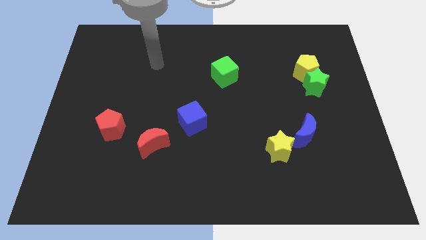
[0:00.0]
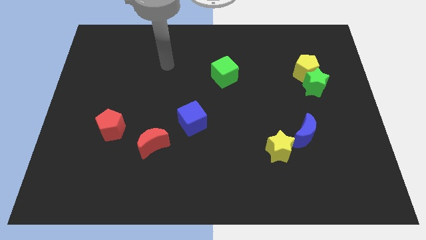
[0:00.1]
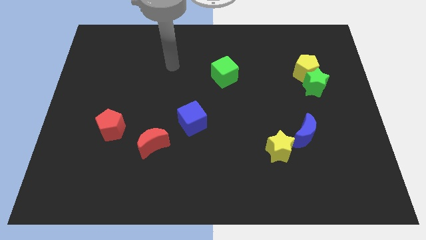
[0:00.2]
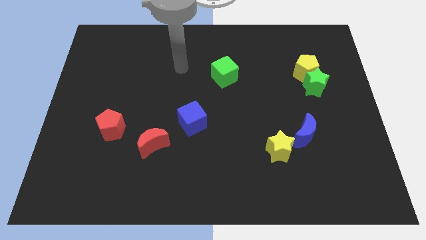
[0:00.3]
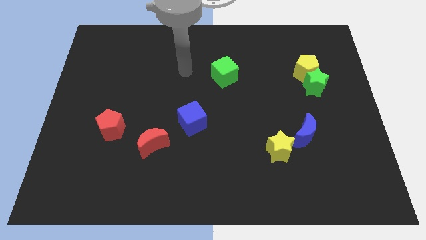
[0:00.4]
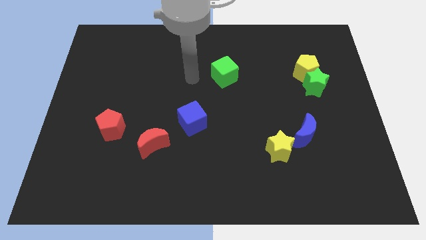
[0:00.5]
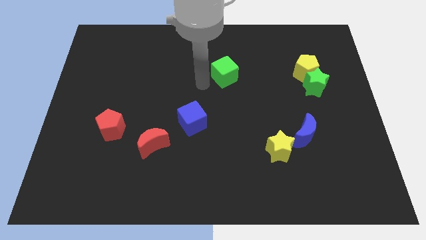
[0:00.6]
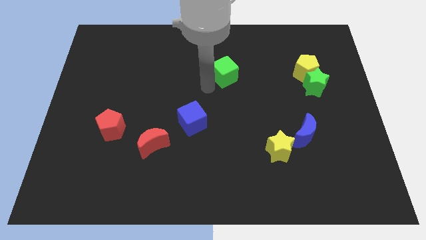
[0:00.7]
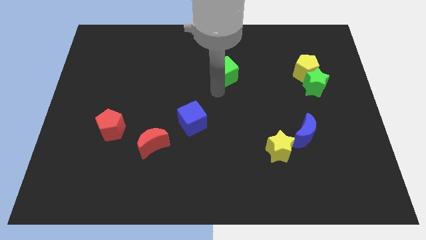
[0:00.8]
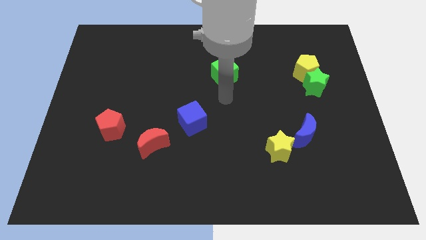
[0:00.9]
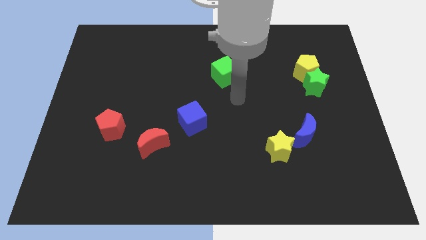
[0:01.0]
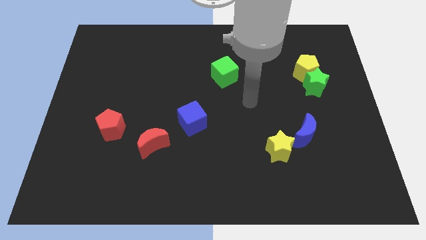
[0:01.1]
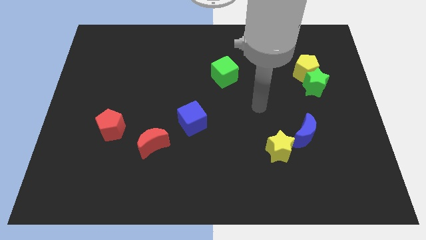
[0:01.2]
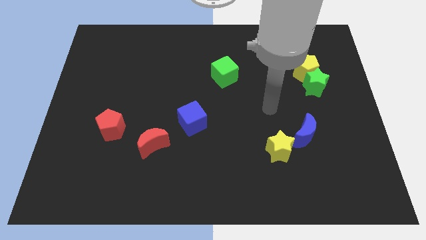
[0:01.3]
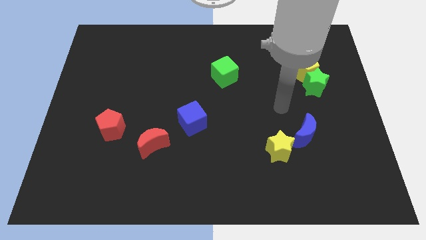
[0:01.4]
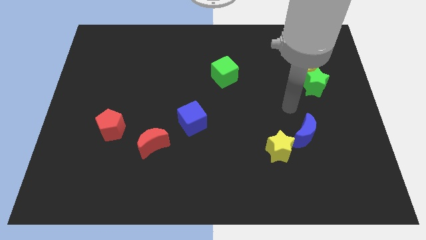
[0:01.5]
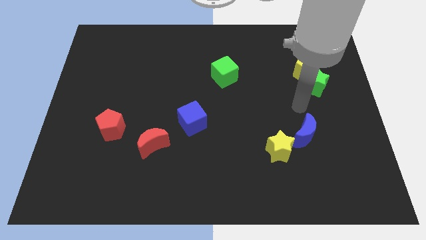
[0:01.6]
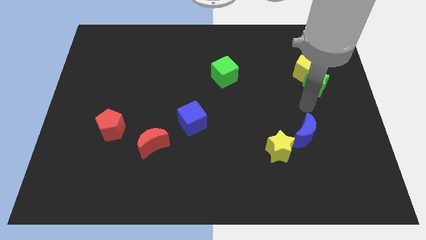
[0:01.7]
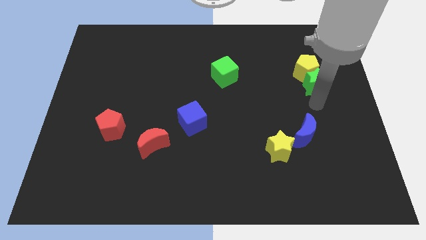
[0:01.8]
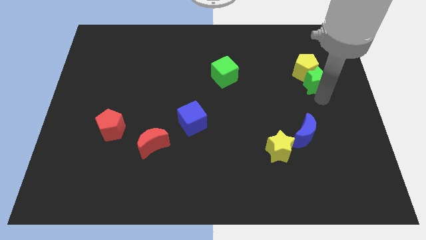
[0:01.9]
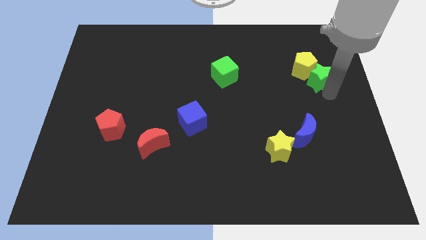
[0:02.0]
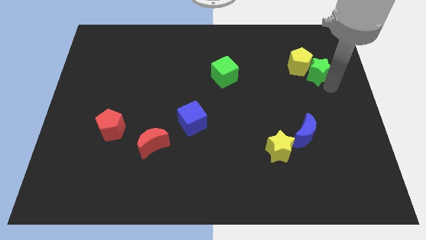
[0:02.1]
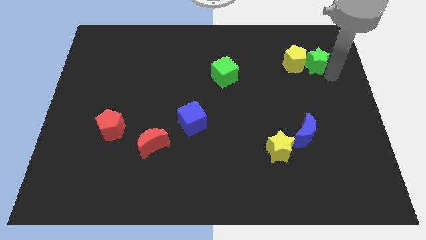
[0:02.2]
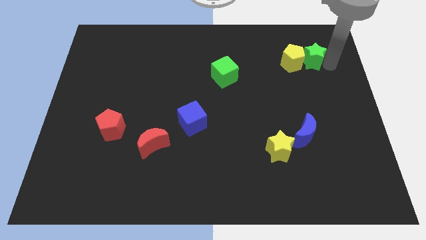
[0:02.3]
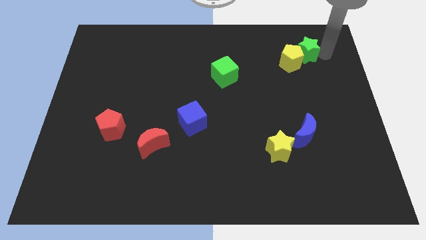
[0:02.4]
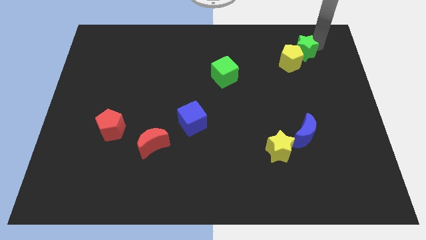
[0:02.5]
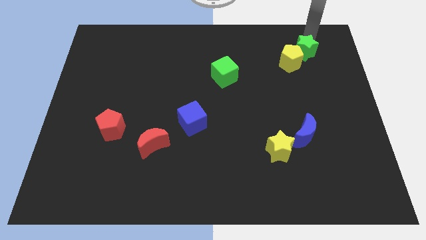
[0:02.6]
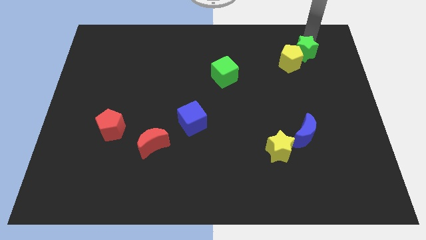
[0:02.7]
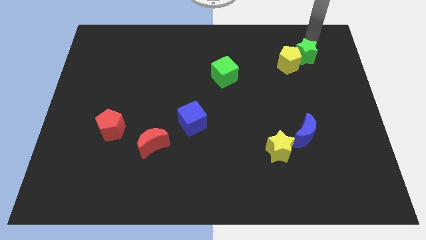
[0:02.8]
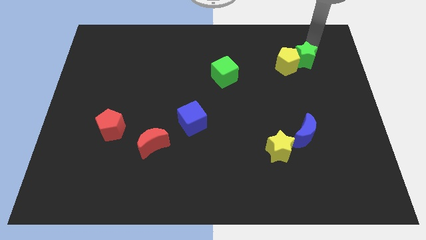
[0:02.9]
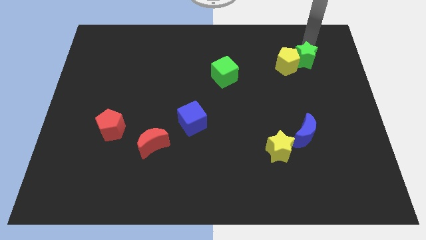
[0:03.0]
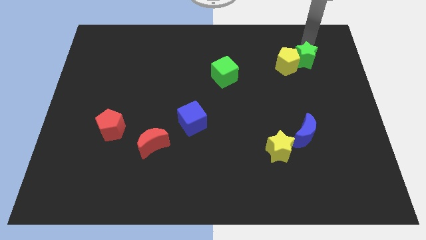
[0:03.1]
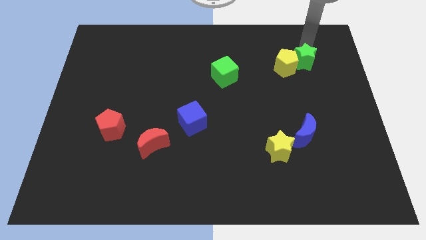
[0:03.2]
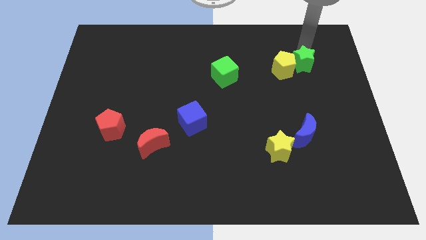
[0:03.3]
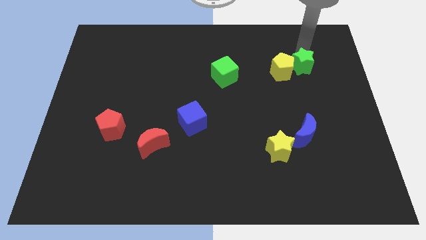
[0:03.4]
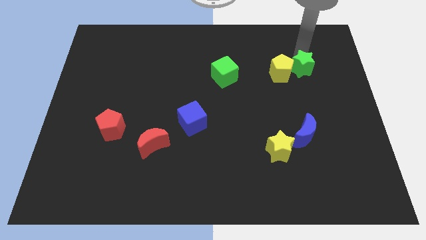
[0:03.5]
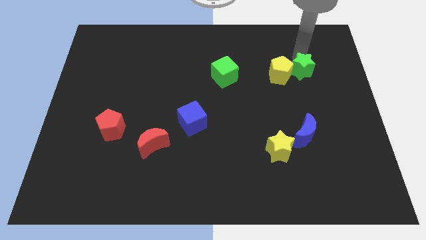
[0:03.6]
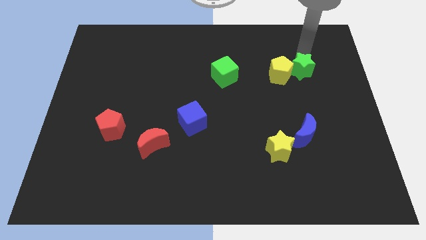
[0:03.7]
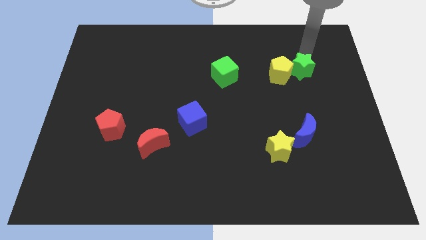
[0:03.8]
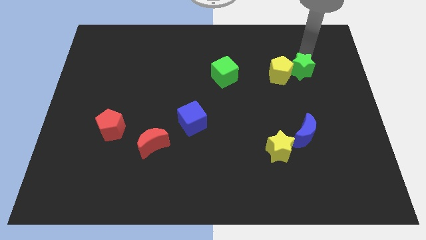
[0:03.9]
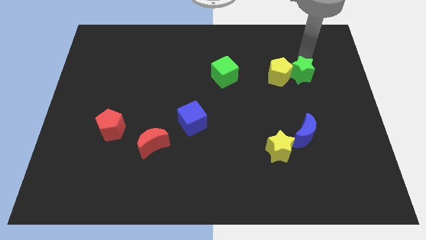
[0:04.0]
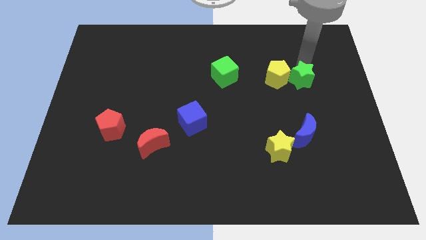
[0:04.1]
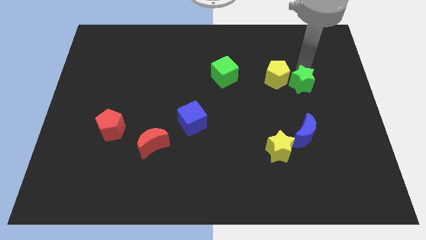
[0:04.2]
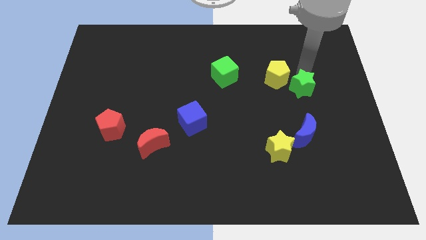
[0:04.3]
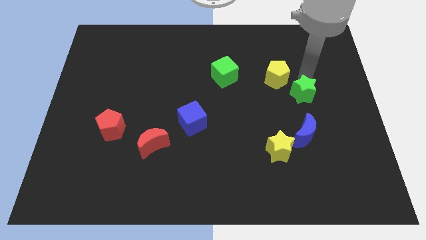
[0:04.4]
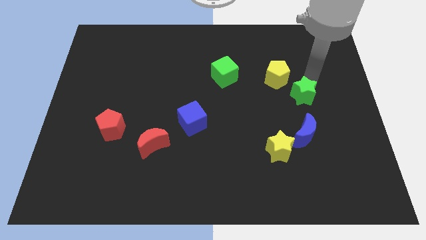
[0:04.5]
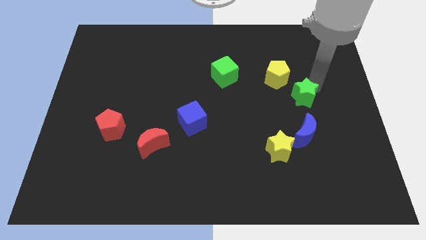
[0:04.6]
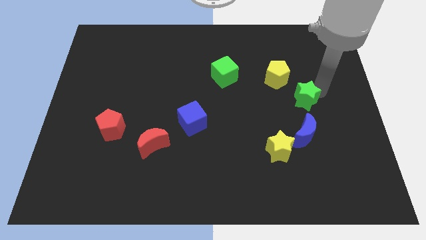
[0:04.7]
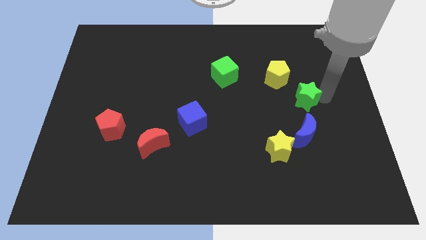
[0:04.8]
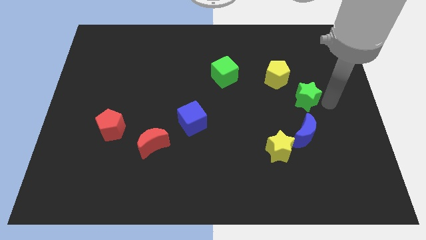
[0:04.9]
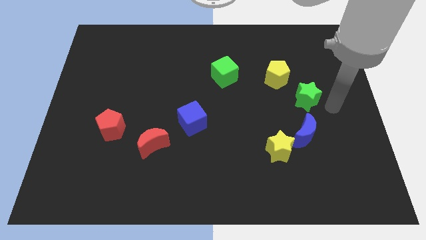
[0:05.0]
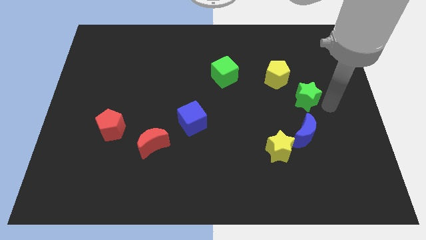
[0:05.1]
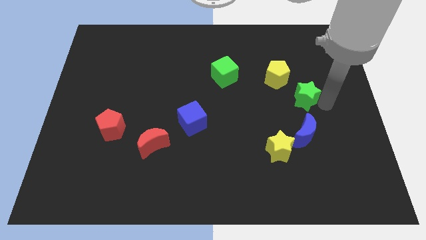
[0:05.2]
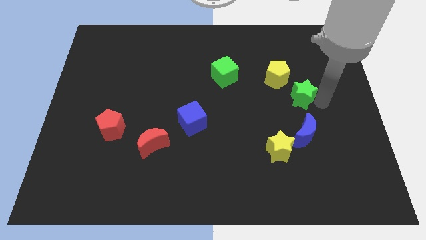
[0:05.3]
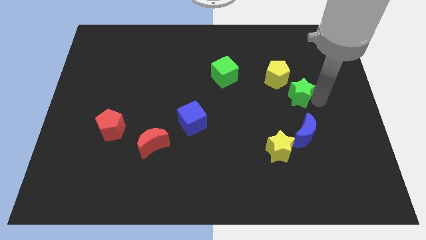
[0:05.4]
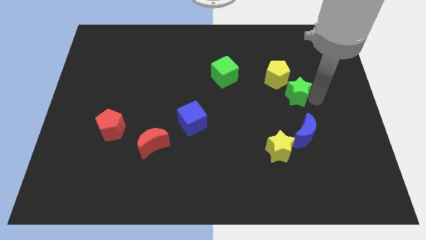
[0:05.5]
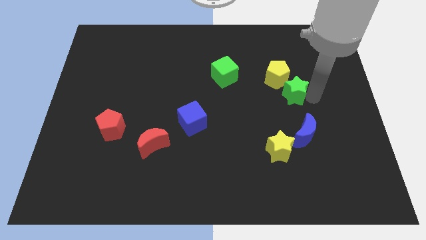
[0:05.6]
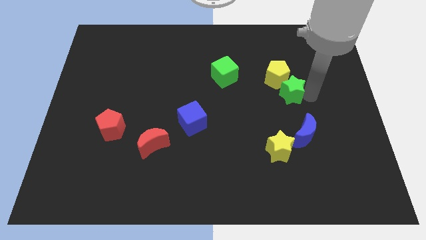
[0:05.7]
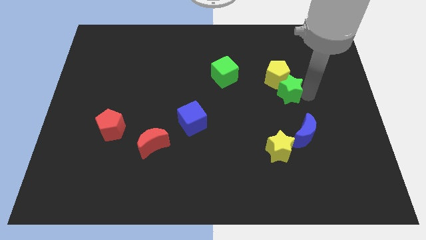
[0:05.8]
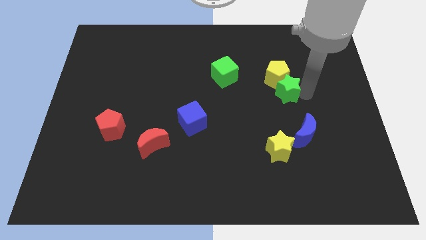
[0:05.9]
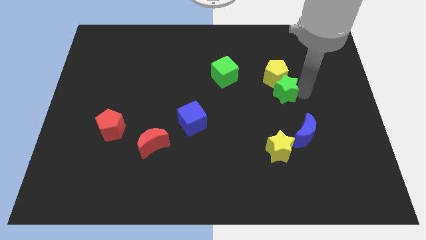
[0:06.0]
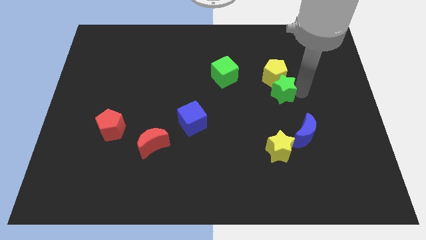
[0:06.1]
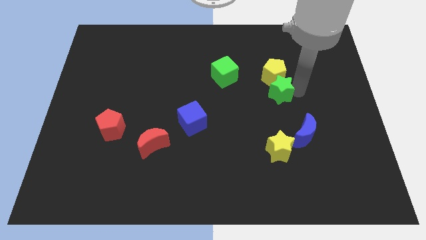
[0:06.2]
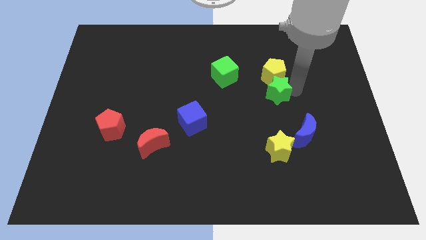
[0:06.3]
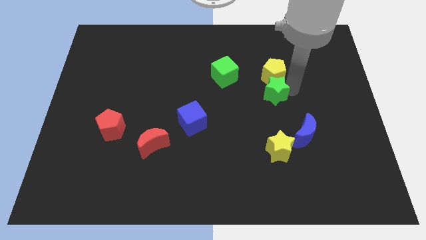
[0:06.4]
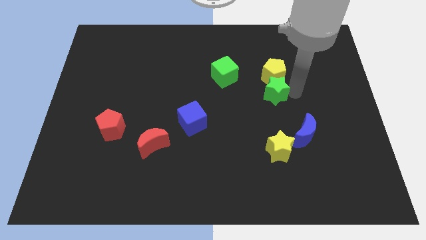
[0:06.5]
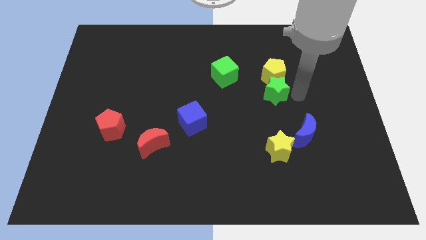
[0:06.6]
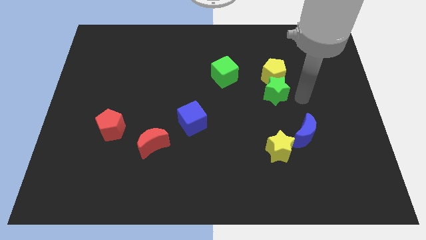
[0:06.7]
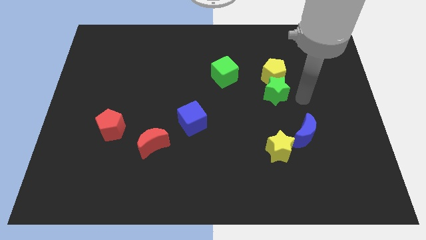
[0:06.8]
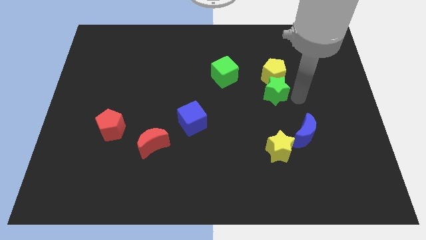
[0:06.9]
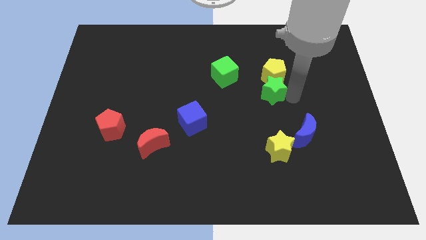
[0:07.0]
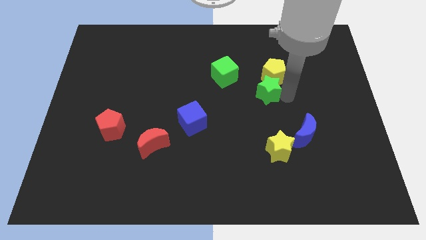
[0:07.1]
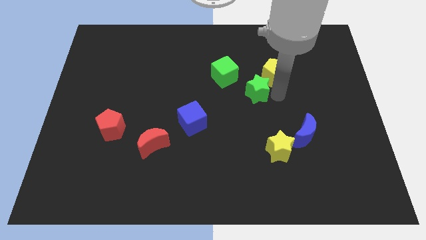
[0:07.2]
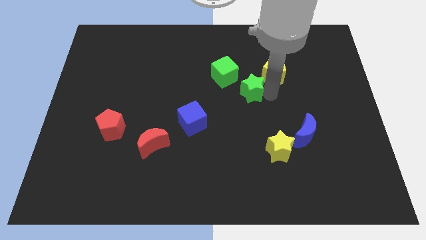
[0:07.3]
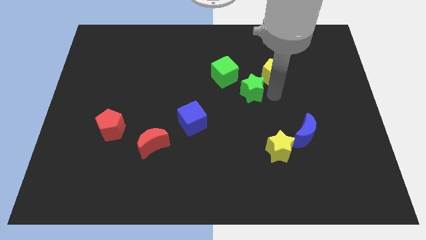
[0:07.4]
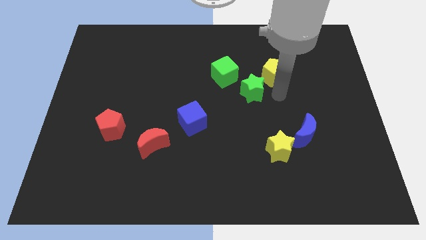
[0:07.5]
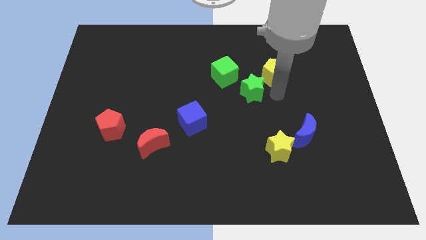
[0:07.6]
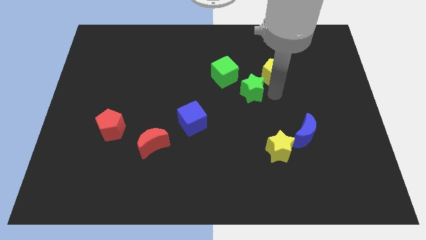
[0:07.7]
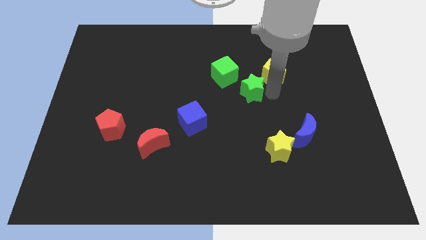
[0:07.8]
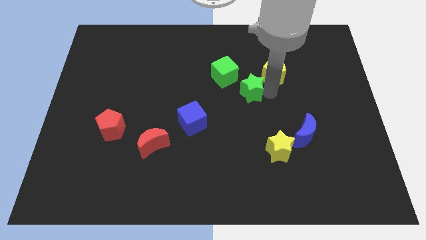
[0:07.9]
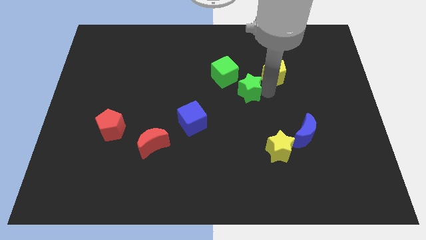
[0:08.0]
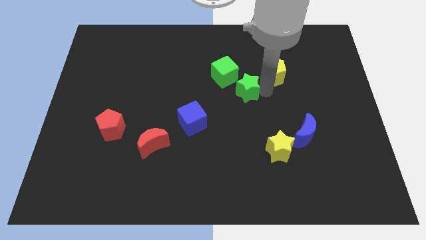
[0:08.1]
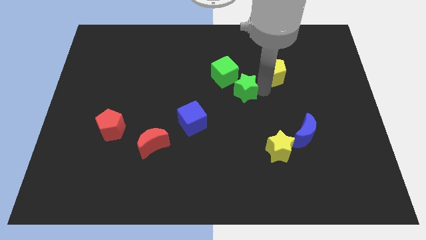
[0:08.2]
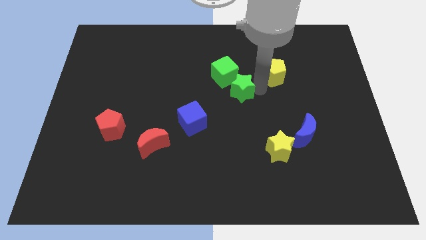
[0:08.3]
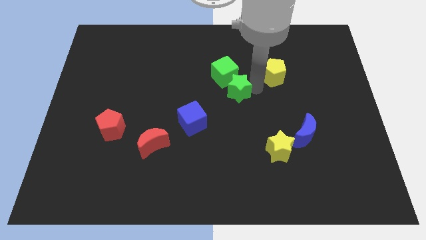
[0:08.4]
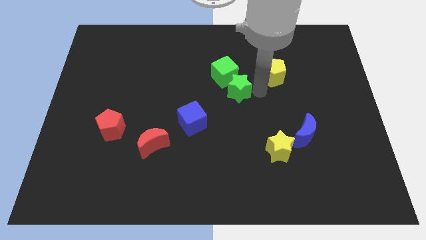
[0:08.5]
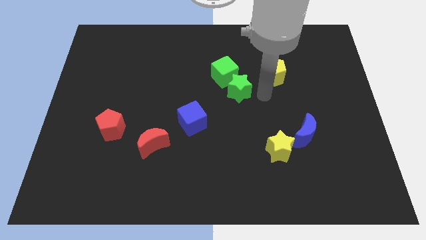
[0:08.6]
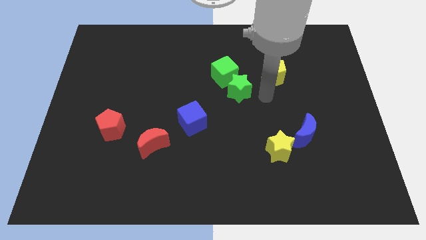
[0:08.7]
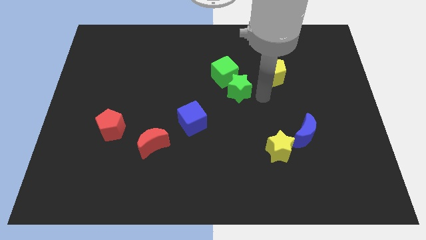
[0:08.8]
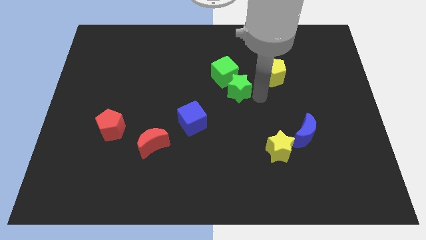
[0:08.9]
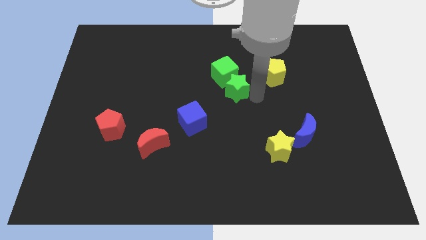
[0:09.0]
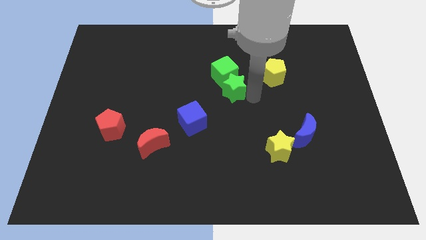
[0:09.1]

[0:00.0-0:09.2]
slide the green star to the left
